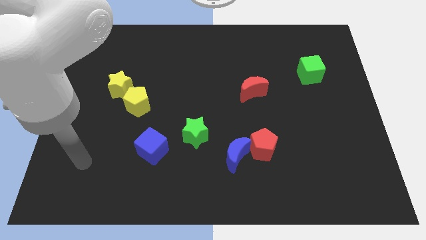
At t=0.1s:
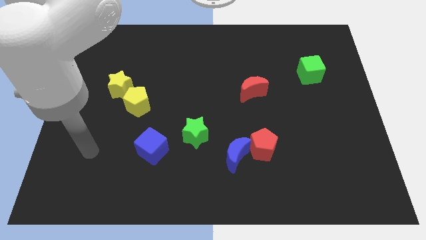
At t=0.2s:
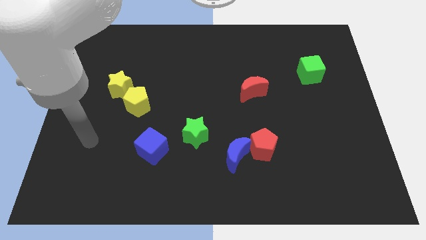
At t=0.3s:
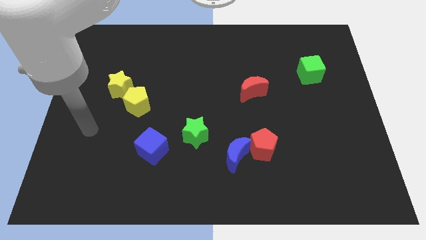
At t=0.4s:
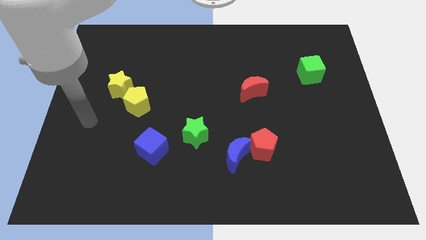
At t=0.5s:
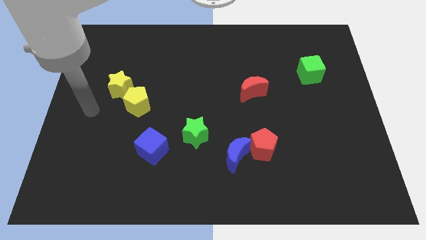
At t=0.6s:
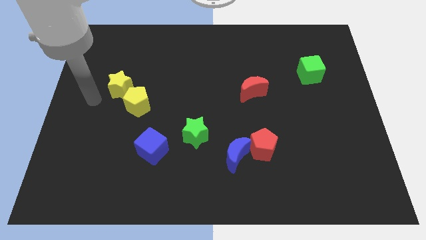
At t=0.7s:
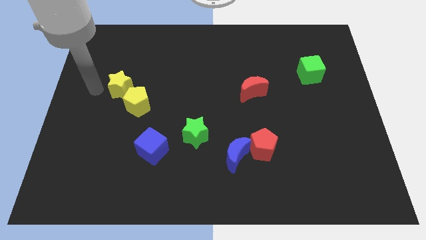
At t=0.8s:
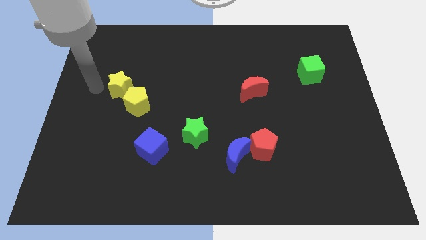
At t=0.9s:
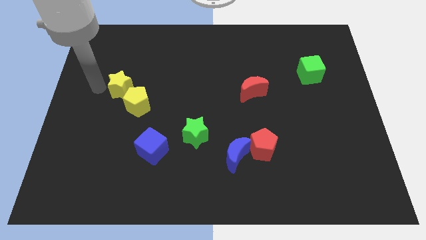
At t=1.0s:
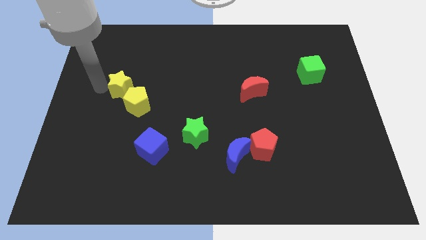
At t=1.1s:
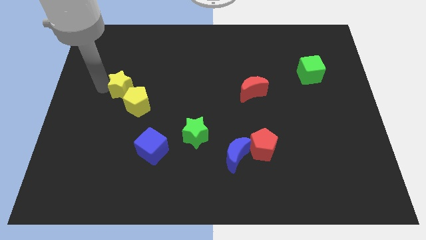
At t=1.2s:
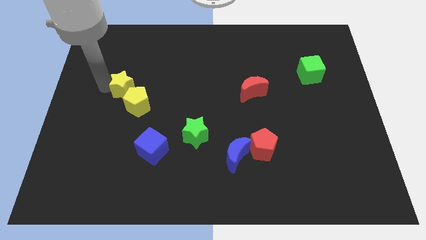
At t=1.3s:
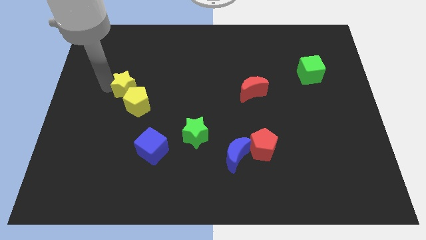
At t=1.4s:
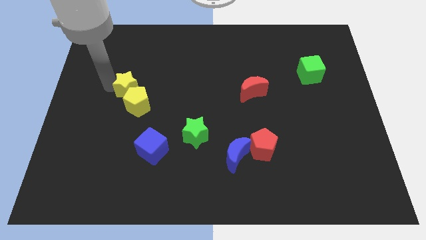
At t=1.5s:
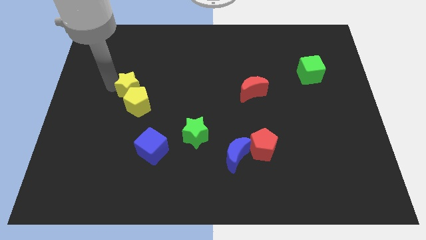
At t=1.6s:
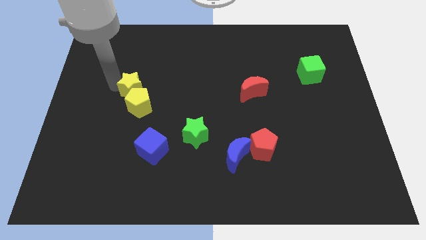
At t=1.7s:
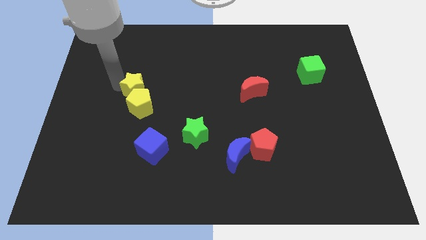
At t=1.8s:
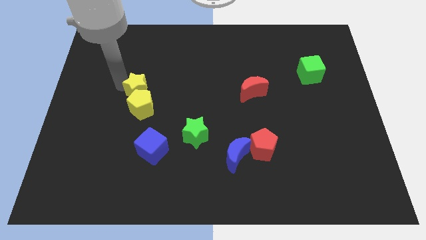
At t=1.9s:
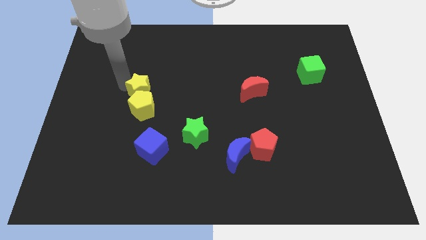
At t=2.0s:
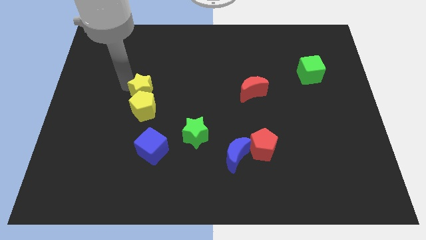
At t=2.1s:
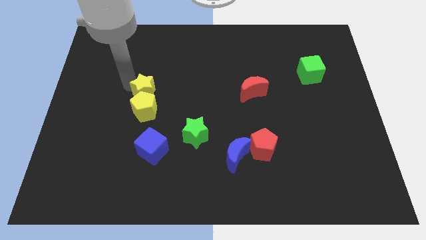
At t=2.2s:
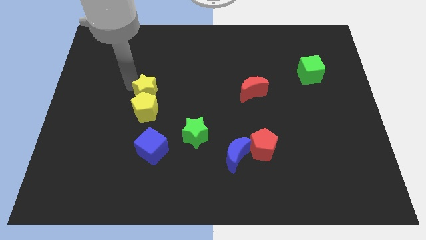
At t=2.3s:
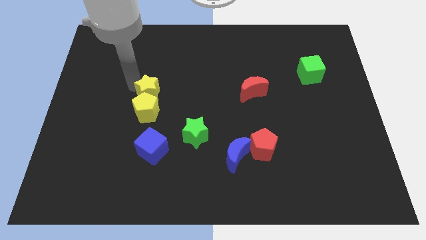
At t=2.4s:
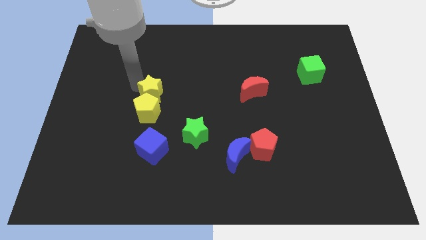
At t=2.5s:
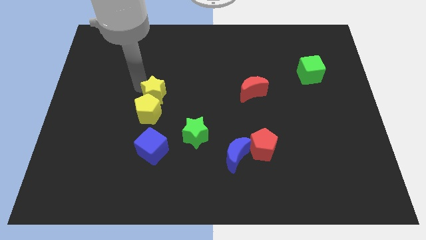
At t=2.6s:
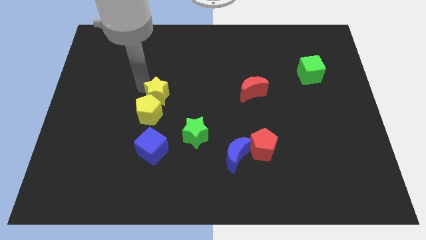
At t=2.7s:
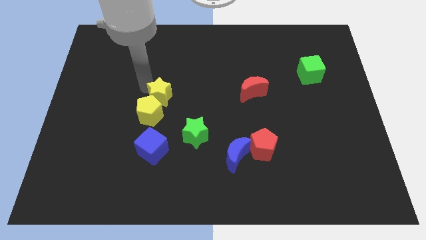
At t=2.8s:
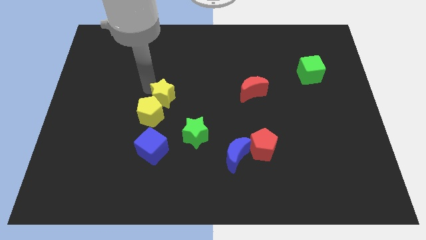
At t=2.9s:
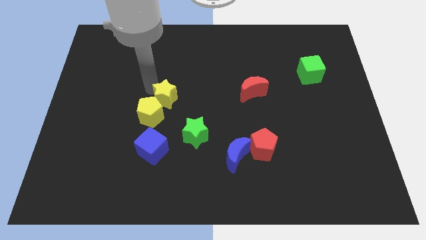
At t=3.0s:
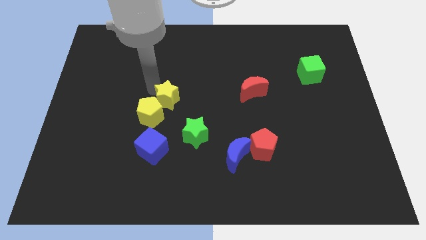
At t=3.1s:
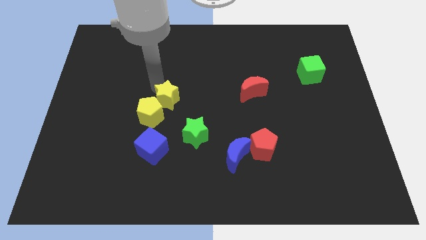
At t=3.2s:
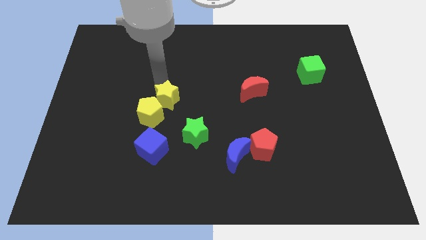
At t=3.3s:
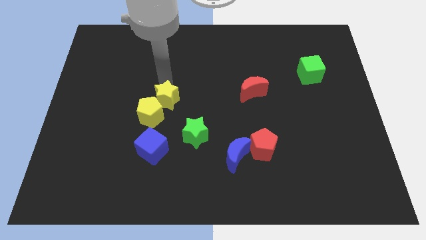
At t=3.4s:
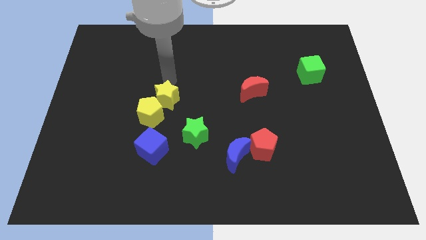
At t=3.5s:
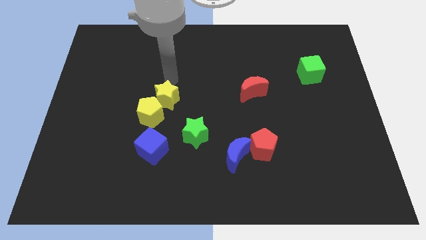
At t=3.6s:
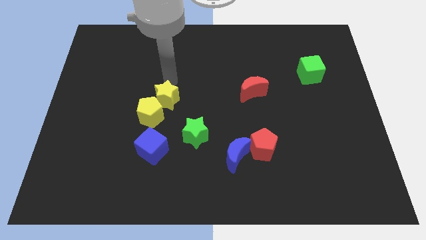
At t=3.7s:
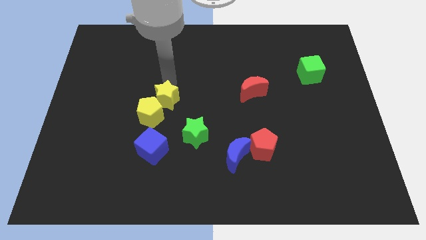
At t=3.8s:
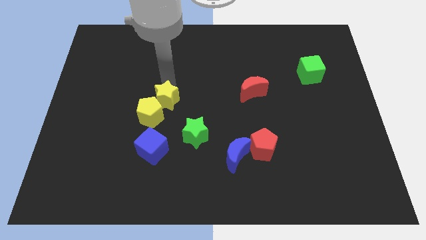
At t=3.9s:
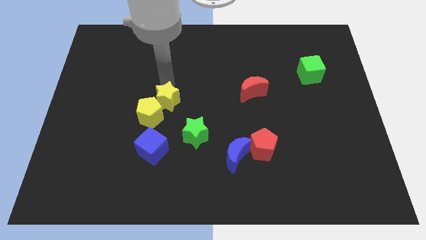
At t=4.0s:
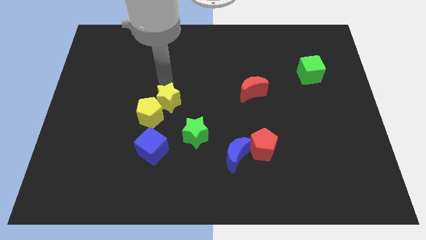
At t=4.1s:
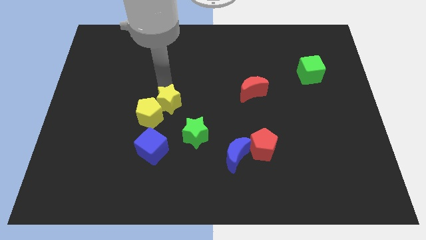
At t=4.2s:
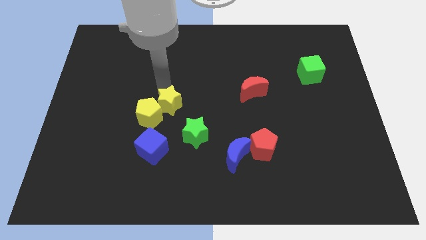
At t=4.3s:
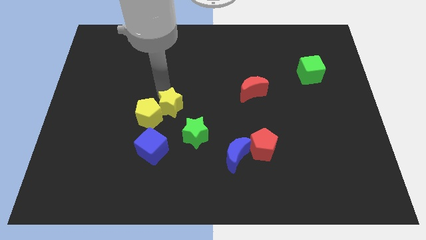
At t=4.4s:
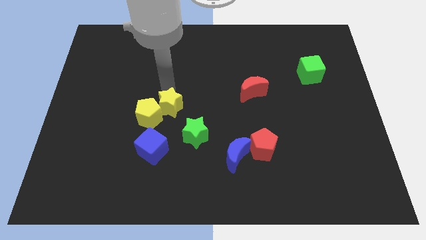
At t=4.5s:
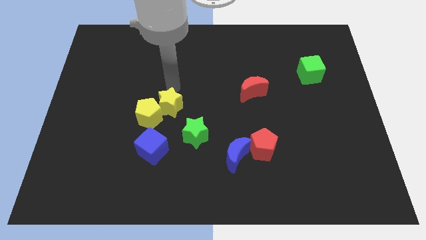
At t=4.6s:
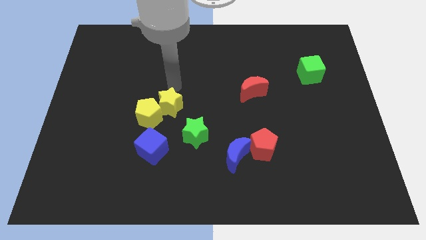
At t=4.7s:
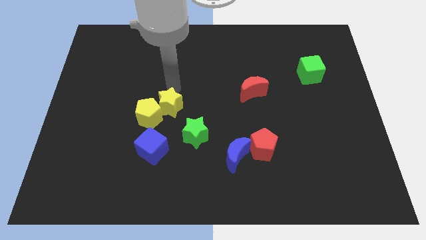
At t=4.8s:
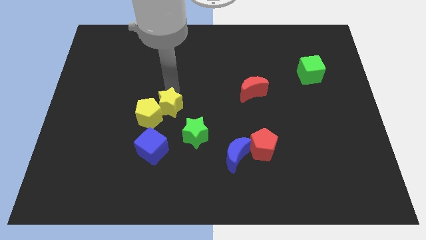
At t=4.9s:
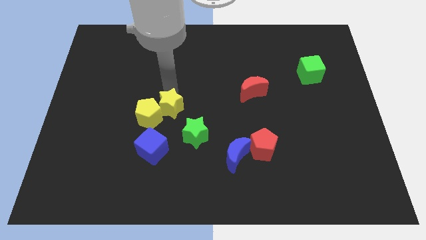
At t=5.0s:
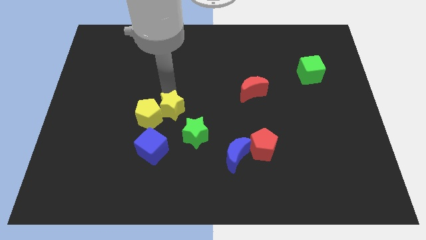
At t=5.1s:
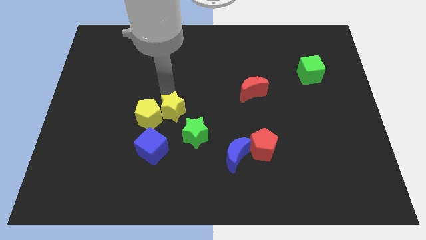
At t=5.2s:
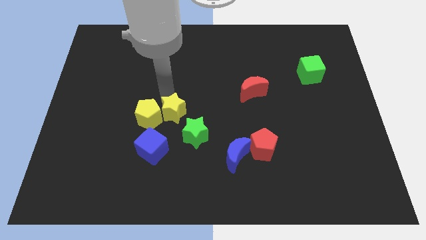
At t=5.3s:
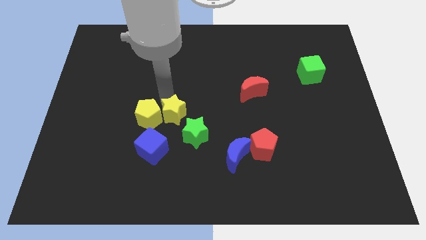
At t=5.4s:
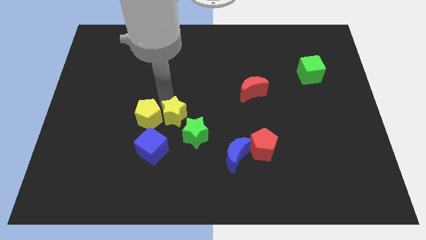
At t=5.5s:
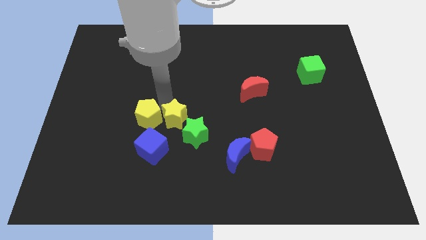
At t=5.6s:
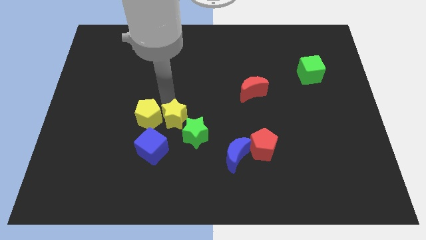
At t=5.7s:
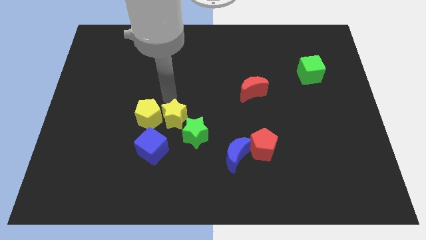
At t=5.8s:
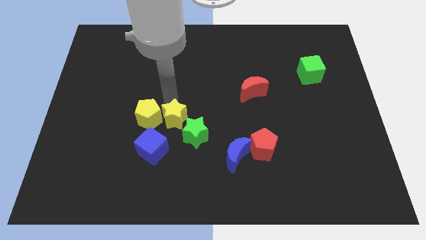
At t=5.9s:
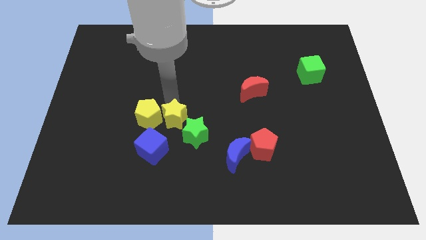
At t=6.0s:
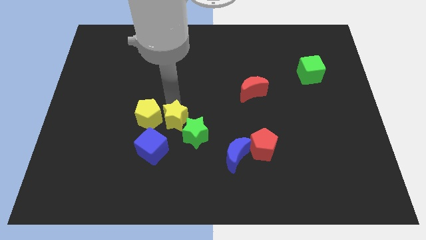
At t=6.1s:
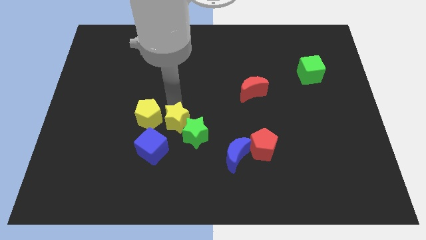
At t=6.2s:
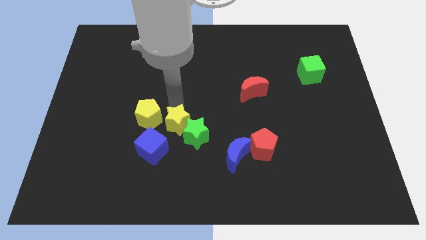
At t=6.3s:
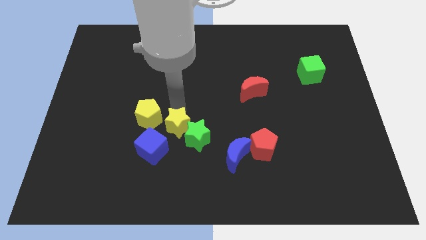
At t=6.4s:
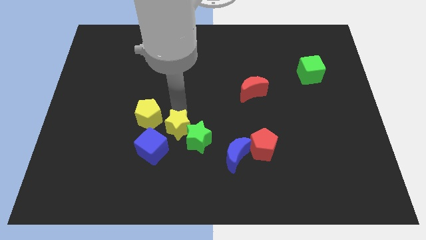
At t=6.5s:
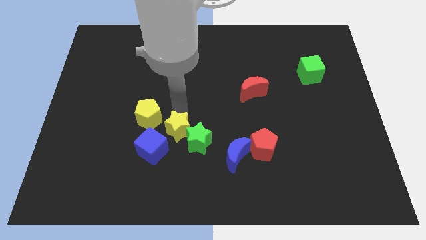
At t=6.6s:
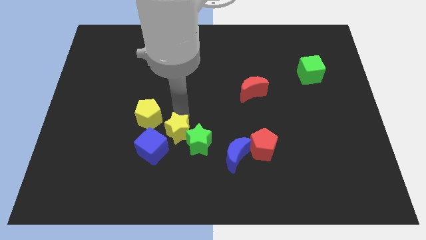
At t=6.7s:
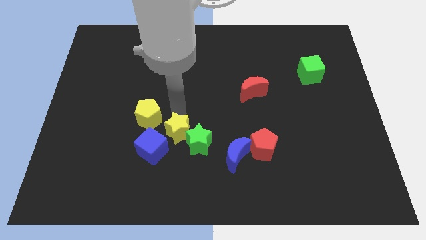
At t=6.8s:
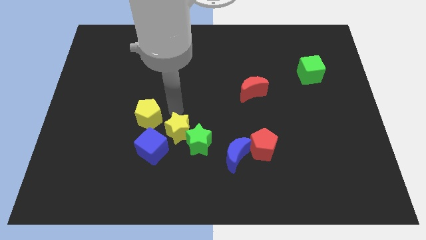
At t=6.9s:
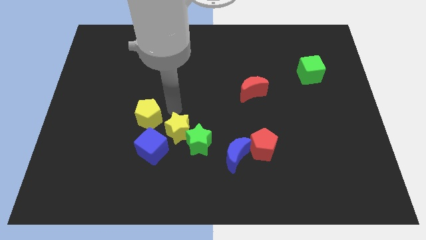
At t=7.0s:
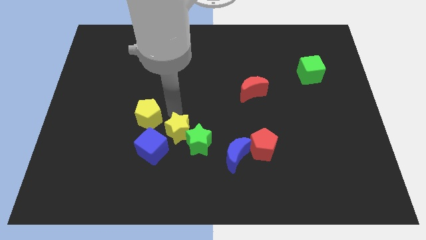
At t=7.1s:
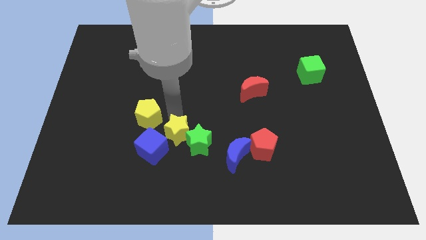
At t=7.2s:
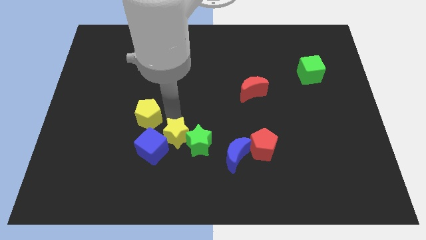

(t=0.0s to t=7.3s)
push the yellow star downwards and right

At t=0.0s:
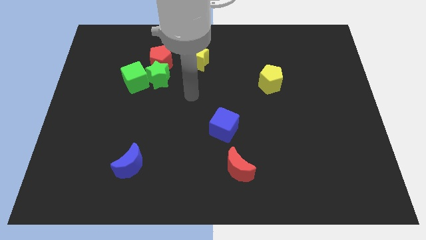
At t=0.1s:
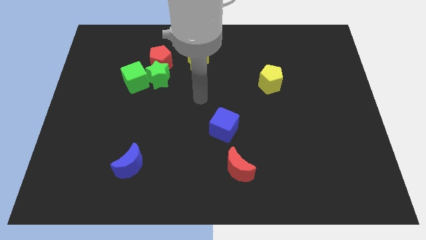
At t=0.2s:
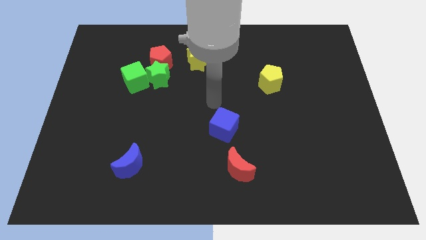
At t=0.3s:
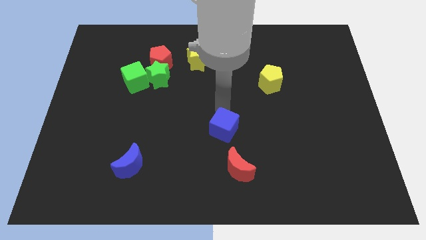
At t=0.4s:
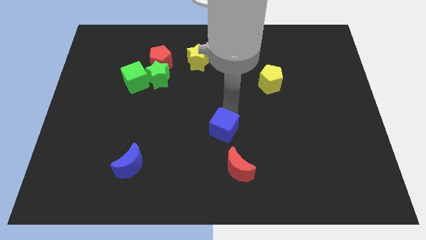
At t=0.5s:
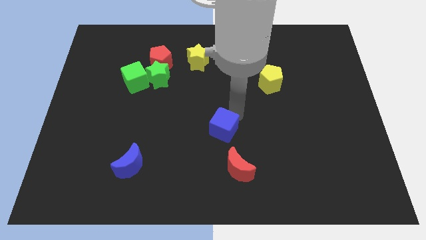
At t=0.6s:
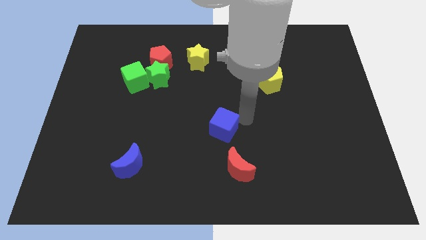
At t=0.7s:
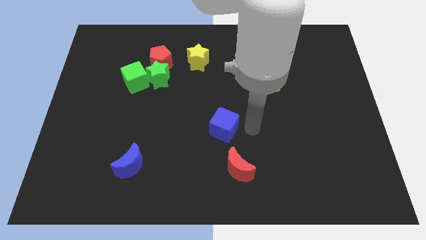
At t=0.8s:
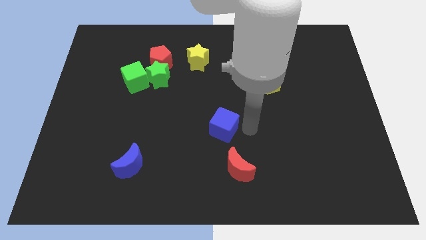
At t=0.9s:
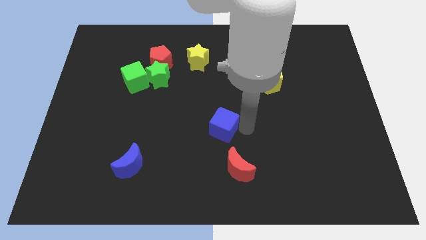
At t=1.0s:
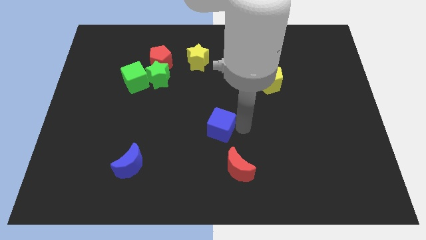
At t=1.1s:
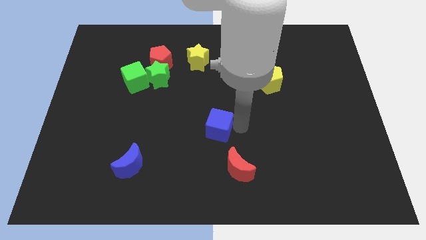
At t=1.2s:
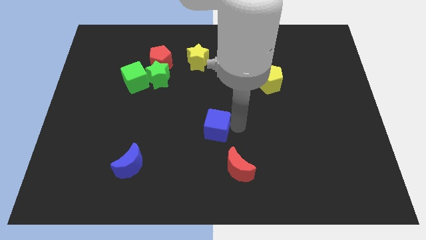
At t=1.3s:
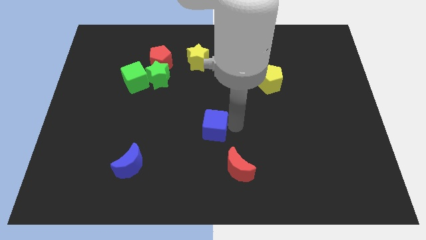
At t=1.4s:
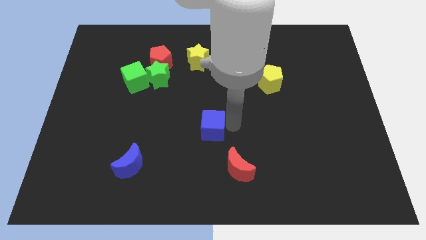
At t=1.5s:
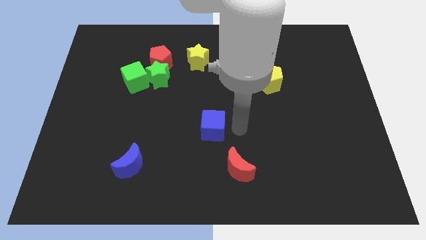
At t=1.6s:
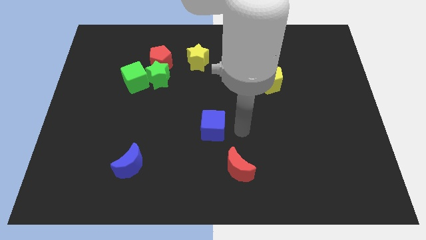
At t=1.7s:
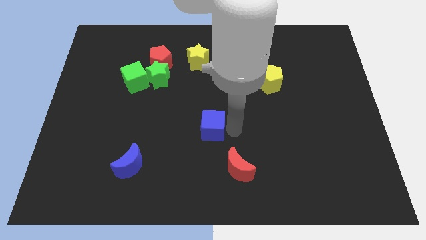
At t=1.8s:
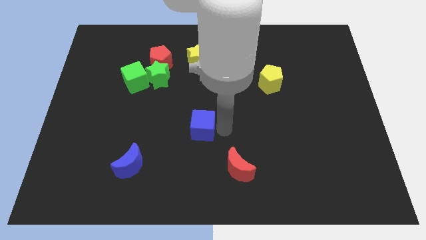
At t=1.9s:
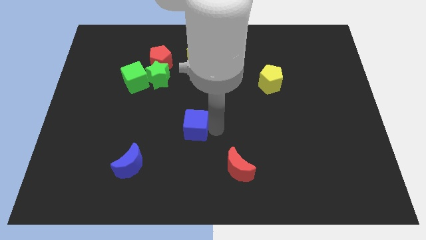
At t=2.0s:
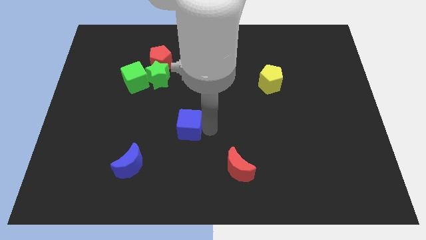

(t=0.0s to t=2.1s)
slightly slide the blue cube left
